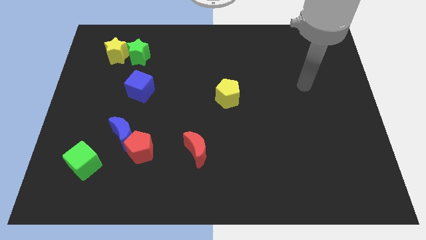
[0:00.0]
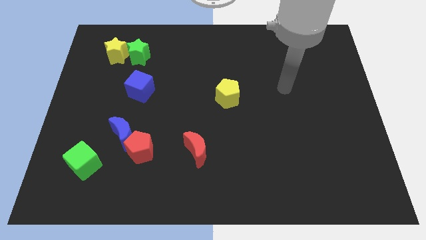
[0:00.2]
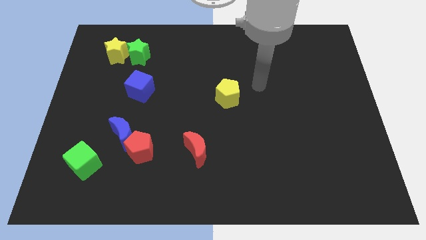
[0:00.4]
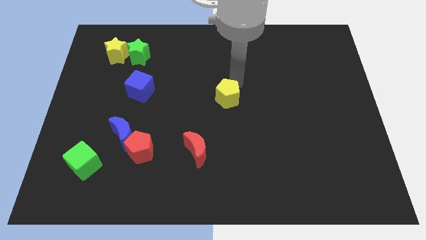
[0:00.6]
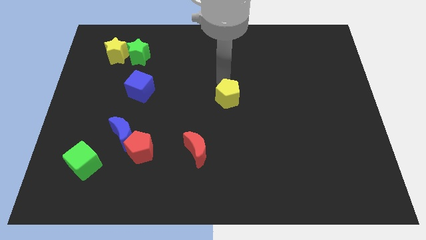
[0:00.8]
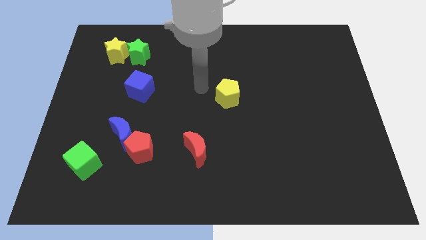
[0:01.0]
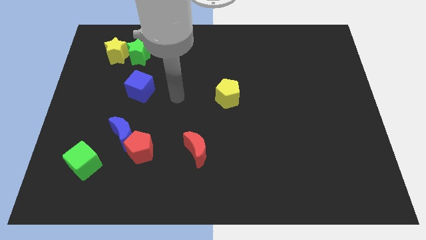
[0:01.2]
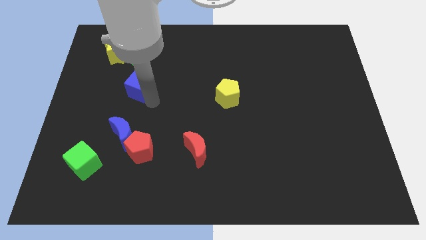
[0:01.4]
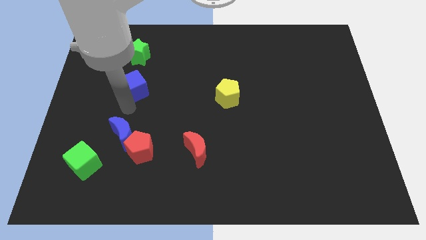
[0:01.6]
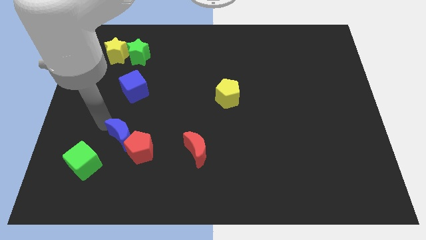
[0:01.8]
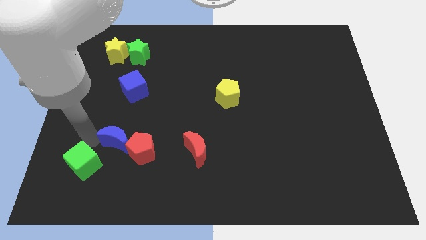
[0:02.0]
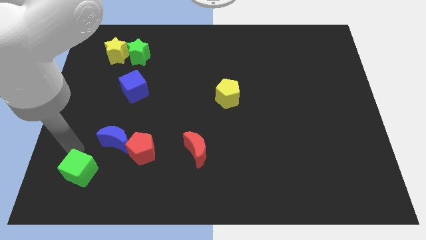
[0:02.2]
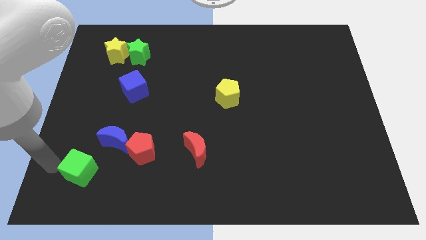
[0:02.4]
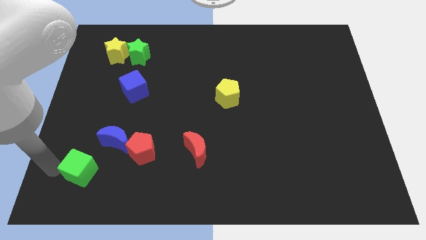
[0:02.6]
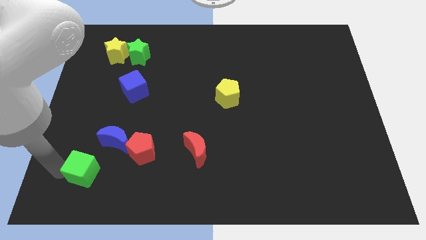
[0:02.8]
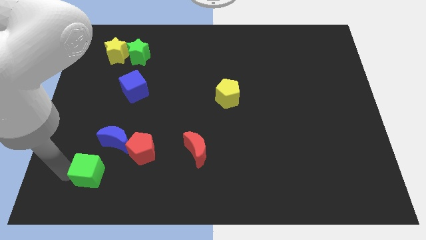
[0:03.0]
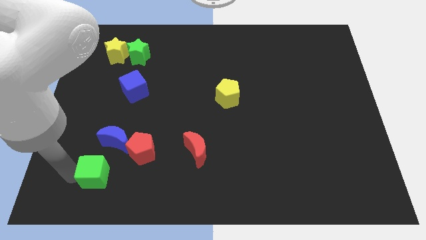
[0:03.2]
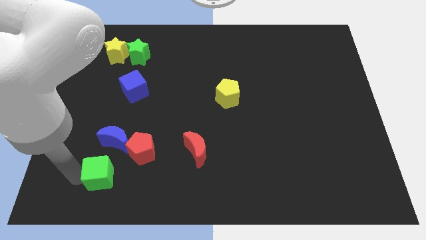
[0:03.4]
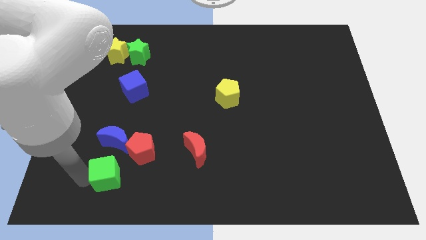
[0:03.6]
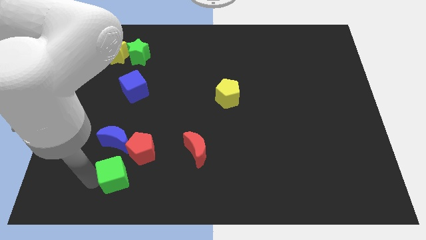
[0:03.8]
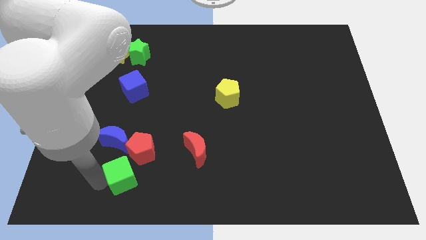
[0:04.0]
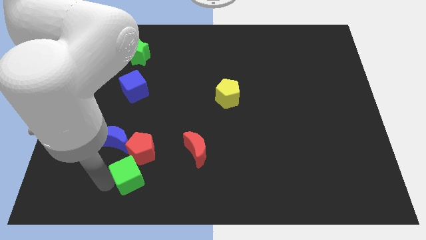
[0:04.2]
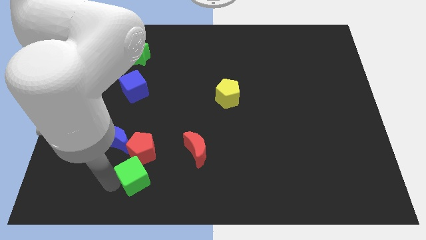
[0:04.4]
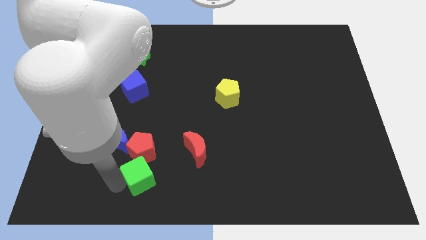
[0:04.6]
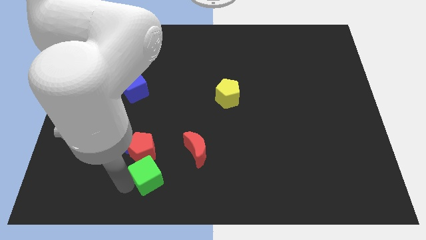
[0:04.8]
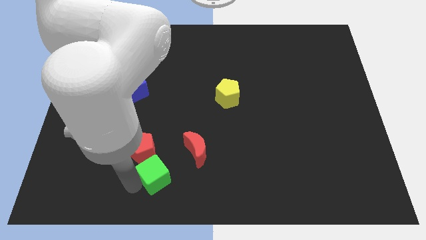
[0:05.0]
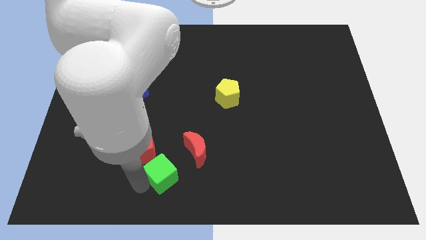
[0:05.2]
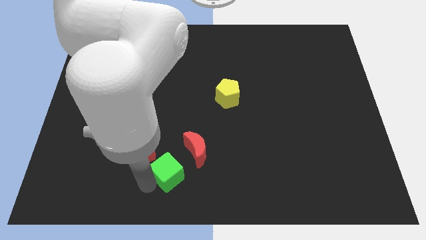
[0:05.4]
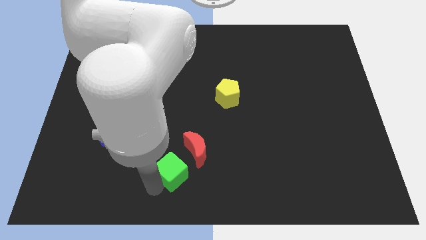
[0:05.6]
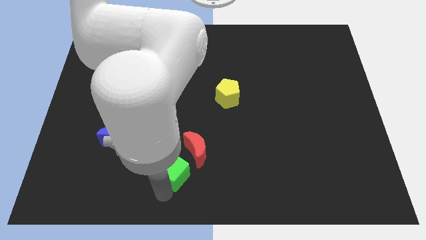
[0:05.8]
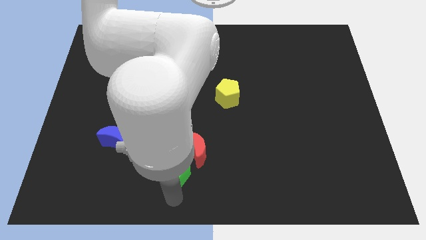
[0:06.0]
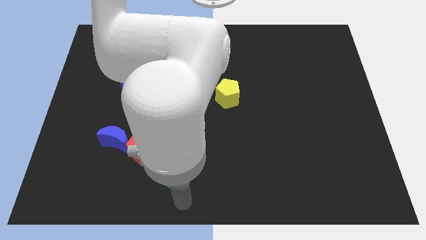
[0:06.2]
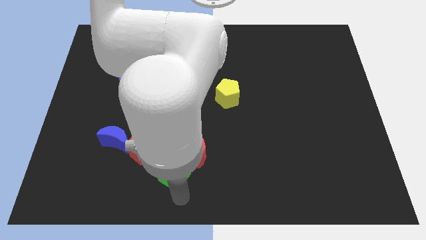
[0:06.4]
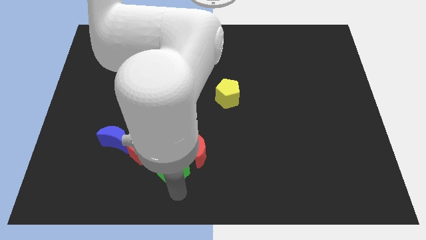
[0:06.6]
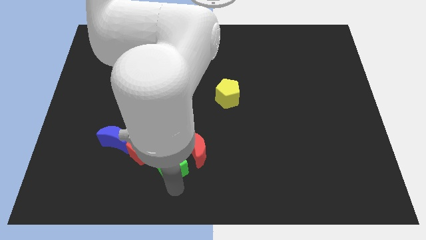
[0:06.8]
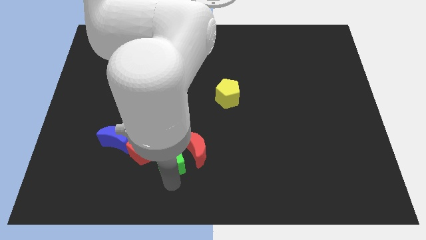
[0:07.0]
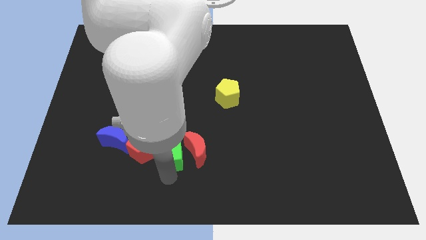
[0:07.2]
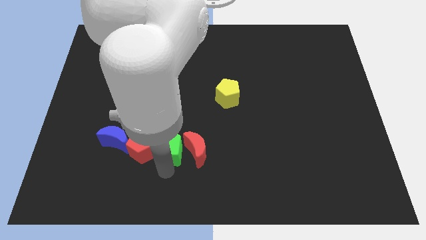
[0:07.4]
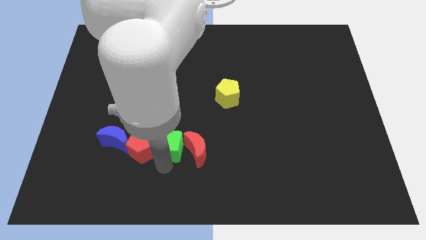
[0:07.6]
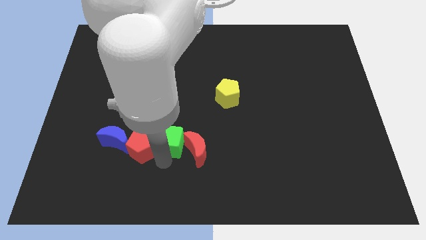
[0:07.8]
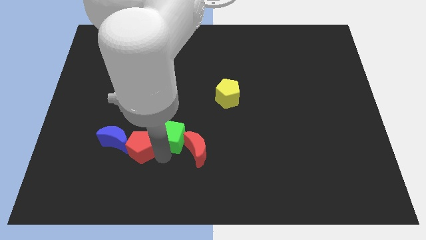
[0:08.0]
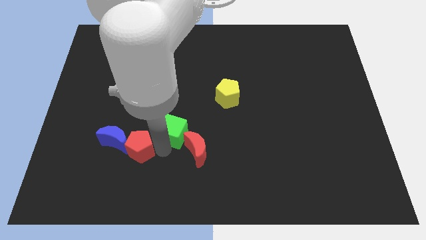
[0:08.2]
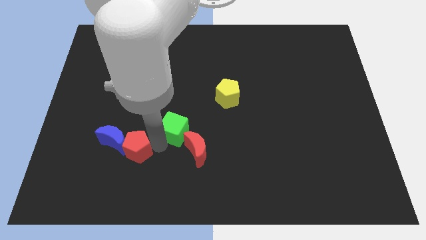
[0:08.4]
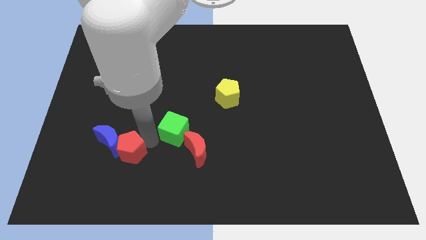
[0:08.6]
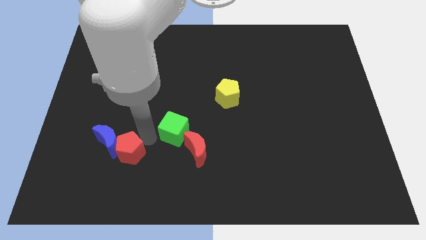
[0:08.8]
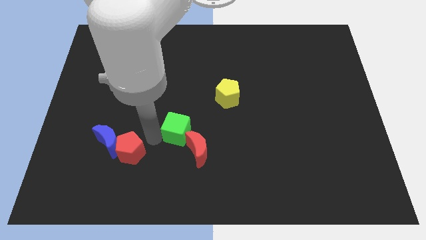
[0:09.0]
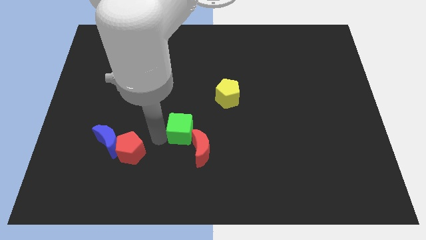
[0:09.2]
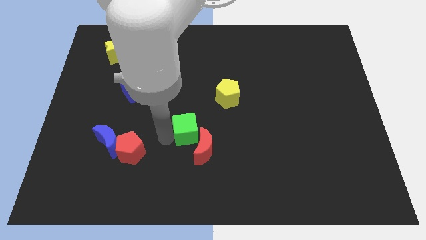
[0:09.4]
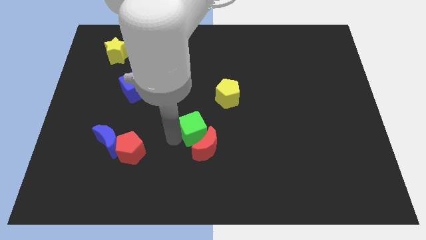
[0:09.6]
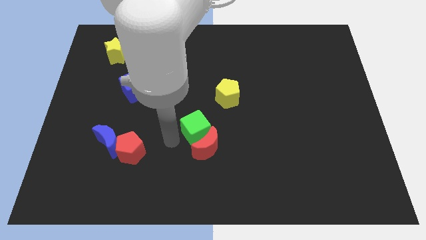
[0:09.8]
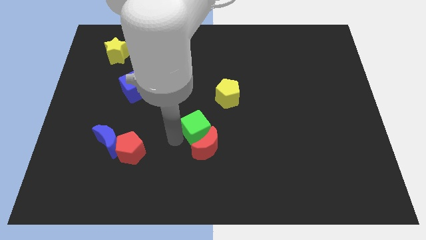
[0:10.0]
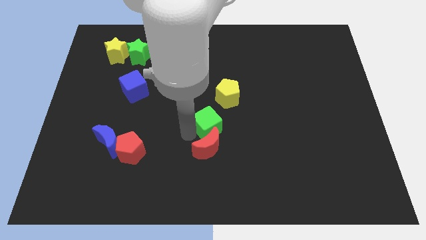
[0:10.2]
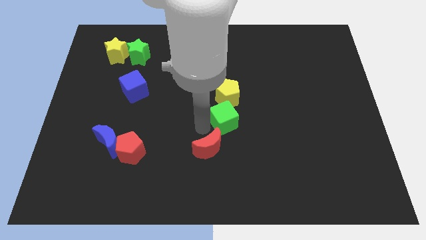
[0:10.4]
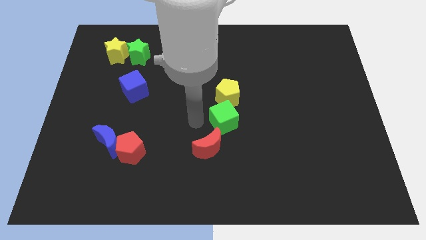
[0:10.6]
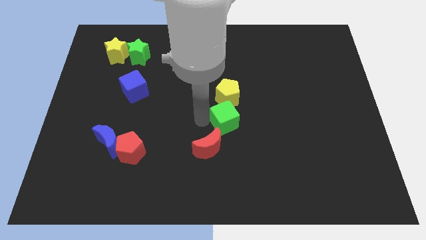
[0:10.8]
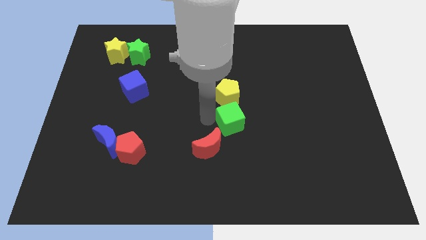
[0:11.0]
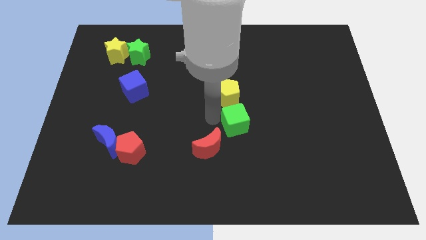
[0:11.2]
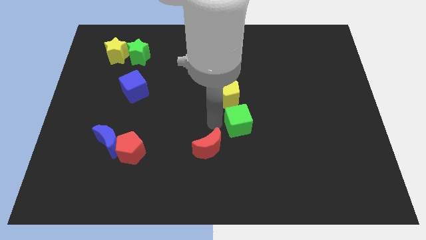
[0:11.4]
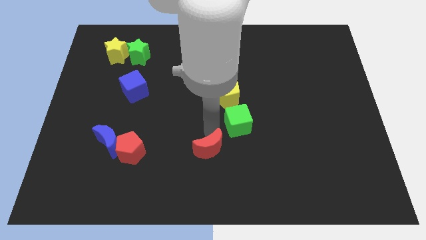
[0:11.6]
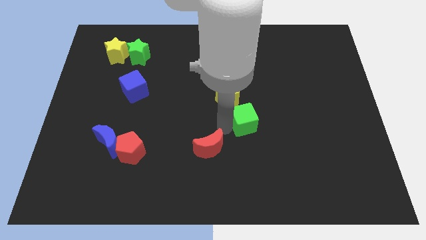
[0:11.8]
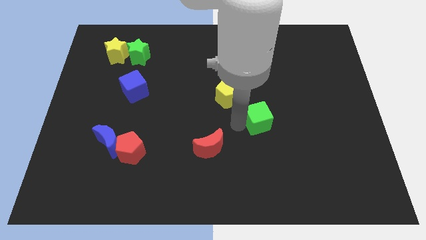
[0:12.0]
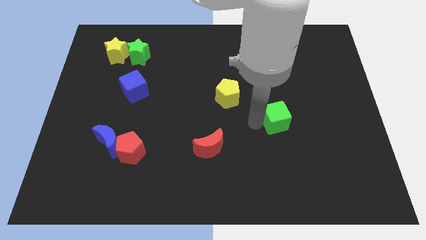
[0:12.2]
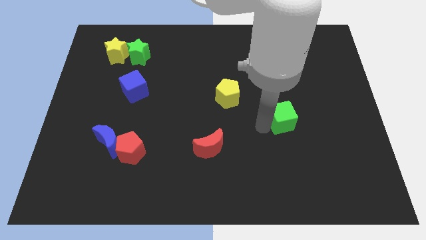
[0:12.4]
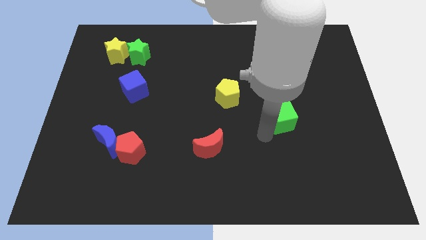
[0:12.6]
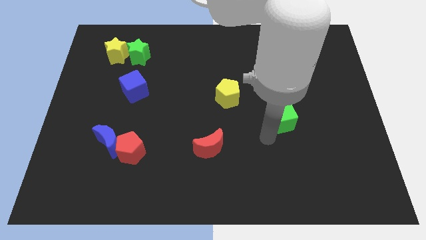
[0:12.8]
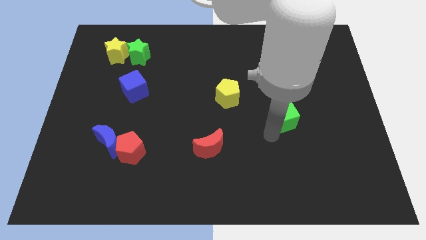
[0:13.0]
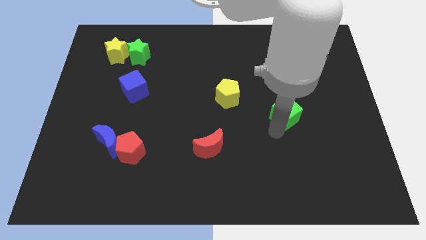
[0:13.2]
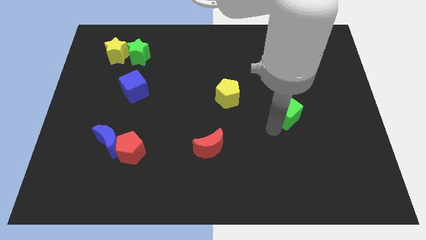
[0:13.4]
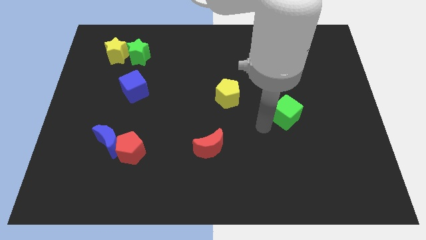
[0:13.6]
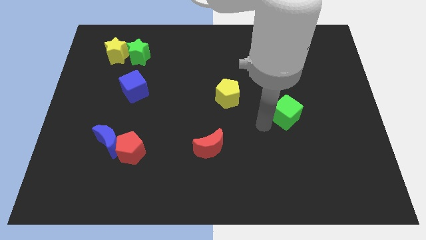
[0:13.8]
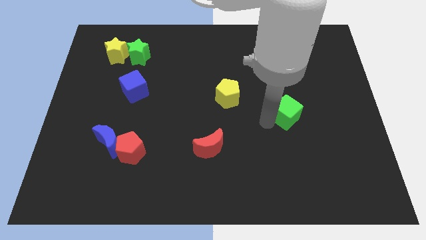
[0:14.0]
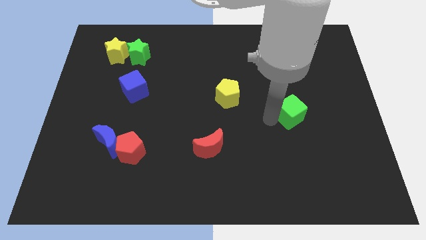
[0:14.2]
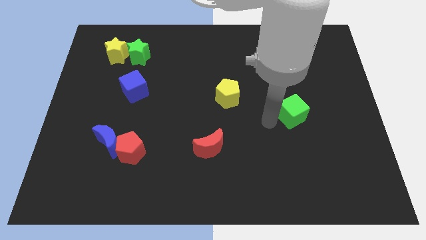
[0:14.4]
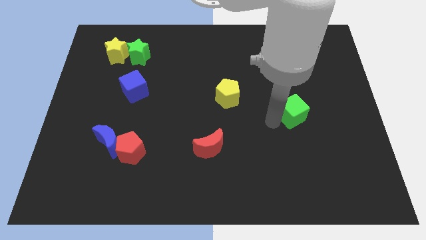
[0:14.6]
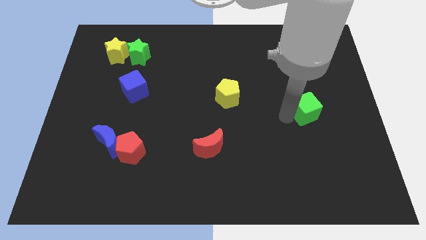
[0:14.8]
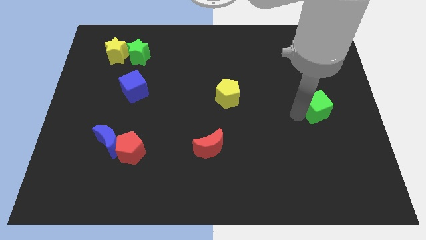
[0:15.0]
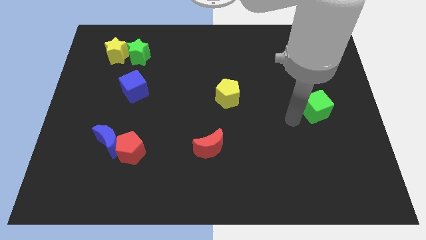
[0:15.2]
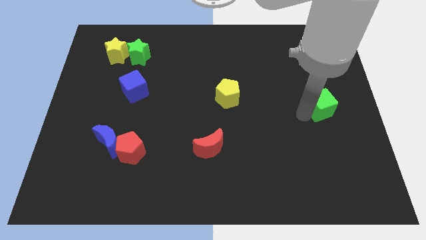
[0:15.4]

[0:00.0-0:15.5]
push the green cube to the right side of the board

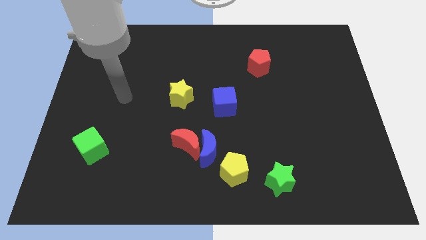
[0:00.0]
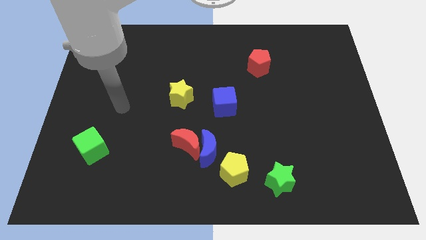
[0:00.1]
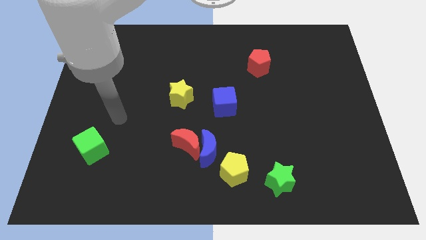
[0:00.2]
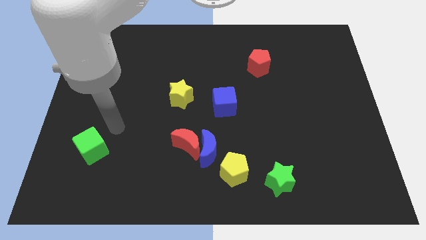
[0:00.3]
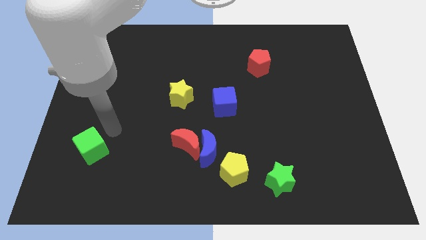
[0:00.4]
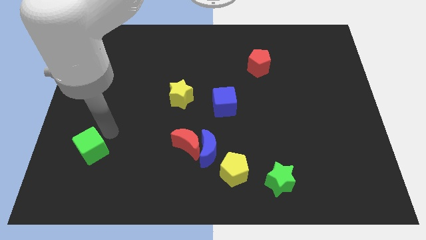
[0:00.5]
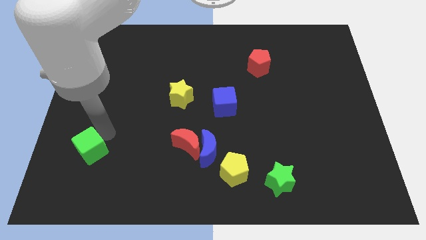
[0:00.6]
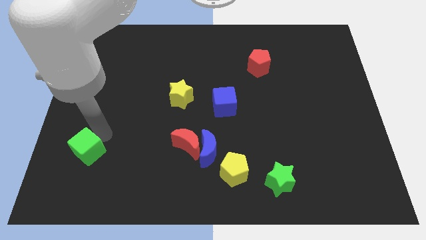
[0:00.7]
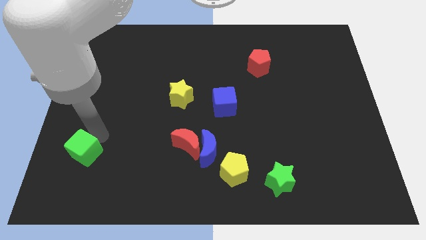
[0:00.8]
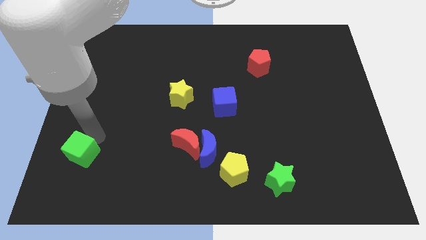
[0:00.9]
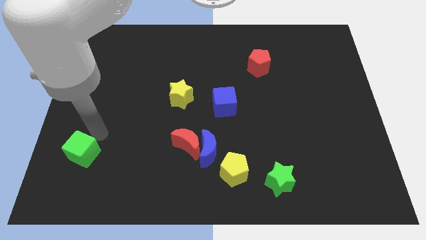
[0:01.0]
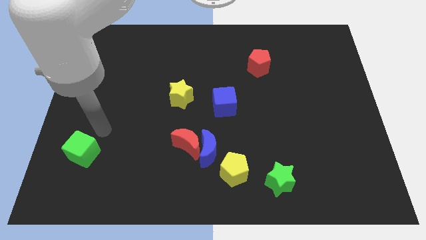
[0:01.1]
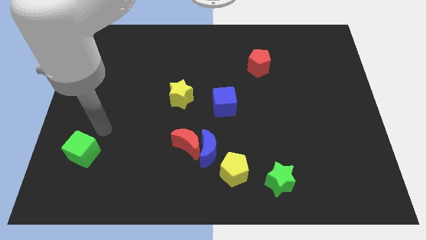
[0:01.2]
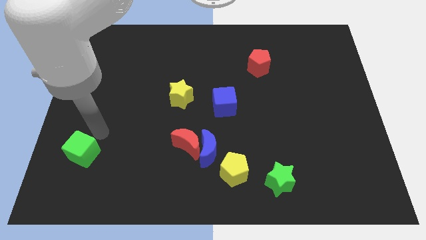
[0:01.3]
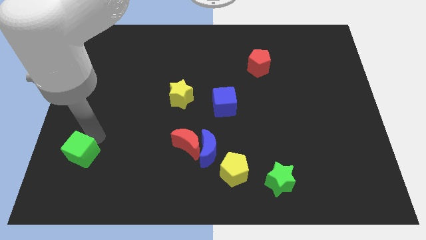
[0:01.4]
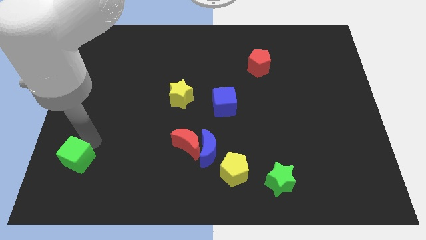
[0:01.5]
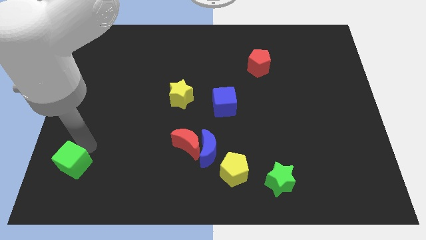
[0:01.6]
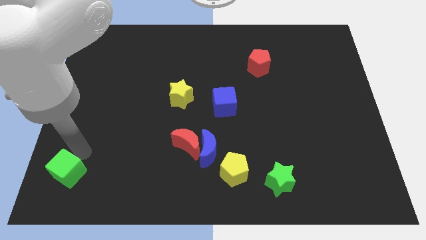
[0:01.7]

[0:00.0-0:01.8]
put the green cube to the lower left corner
